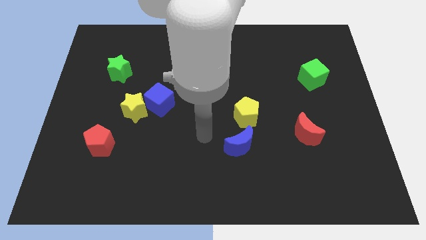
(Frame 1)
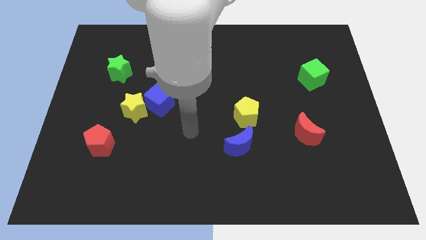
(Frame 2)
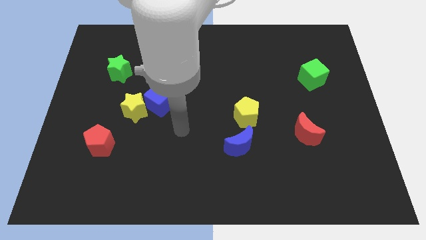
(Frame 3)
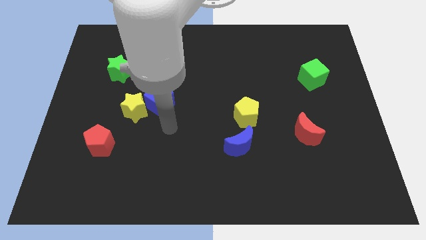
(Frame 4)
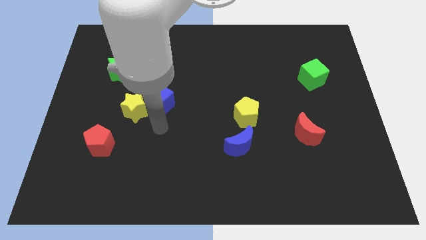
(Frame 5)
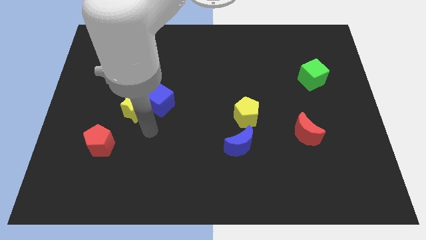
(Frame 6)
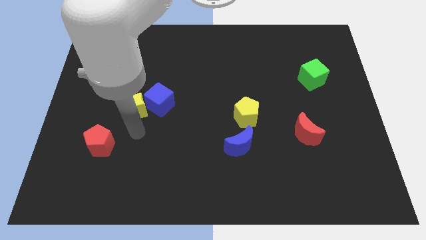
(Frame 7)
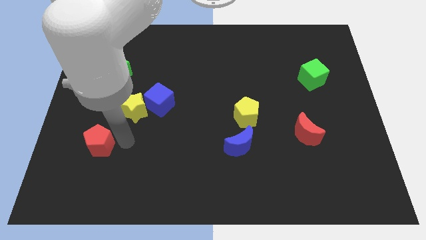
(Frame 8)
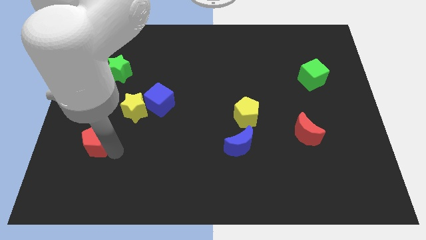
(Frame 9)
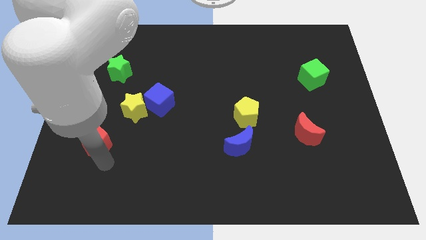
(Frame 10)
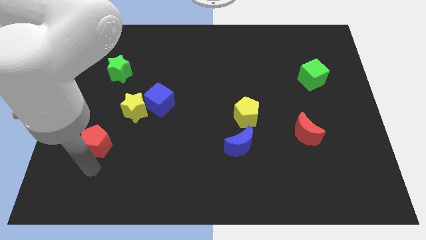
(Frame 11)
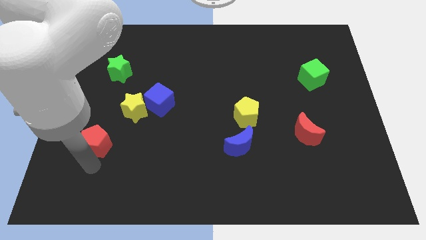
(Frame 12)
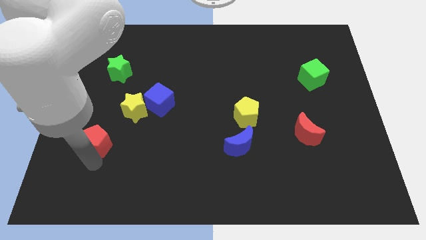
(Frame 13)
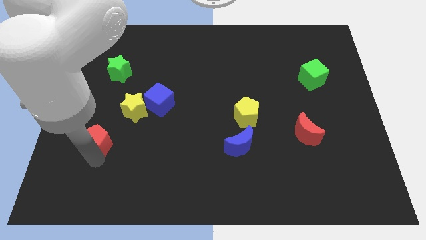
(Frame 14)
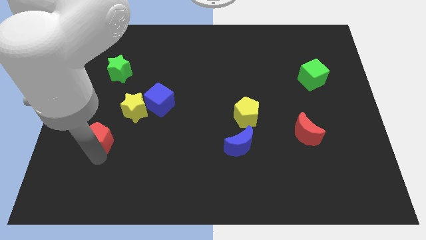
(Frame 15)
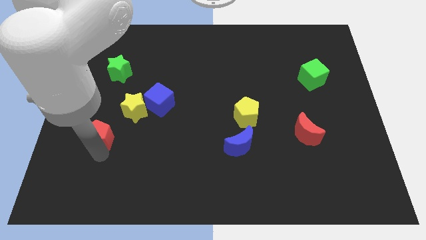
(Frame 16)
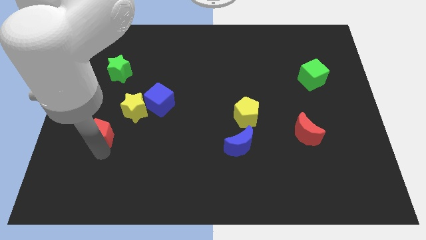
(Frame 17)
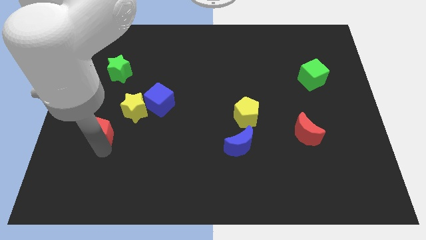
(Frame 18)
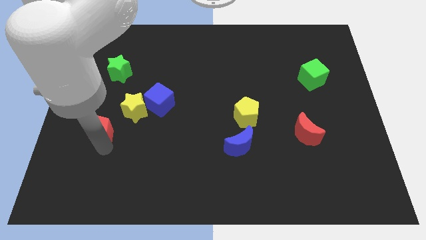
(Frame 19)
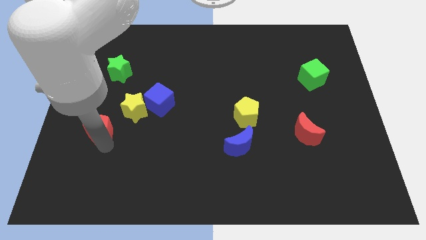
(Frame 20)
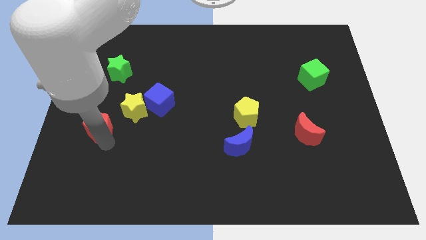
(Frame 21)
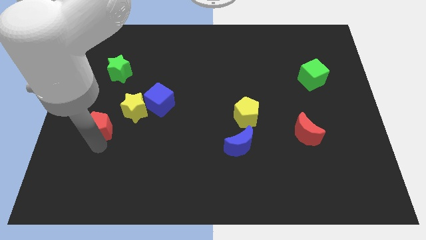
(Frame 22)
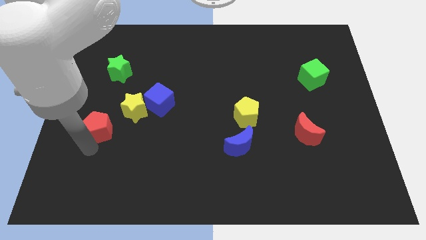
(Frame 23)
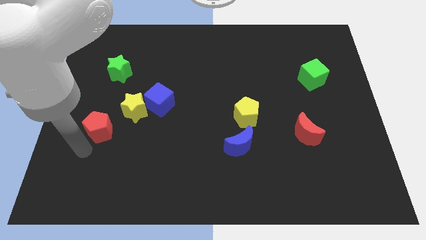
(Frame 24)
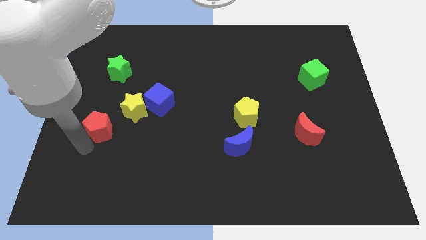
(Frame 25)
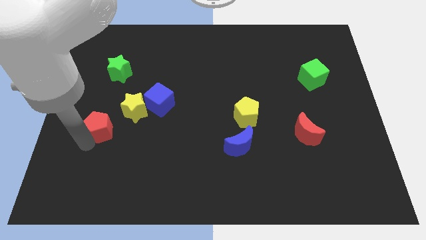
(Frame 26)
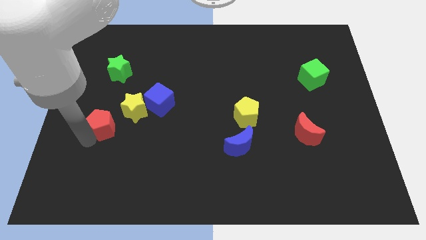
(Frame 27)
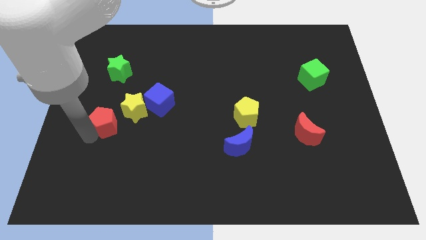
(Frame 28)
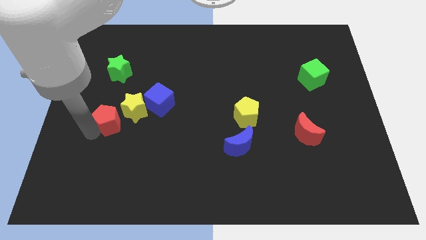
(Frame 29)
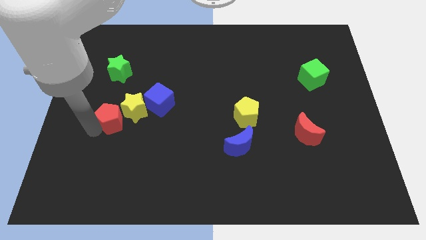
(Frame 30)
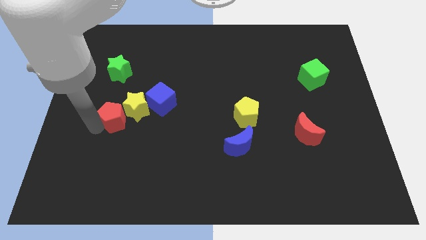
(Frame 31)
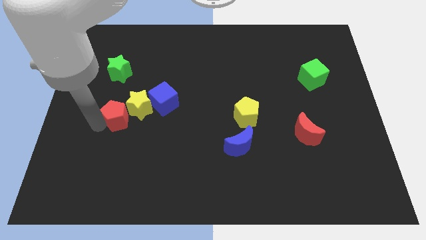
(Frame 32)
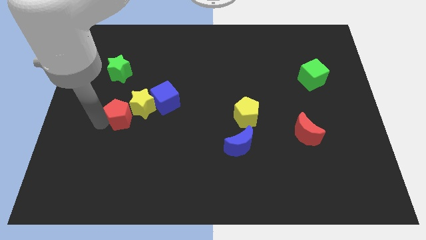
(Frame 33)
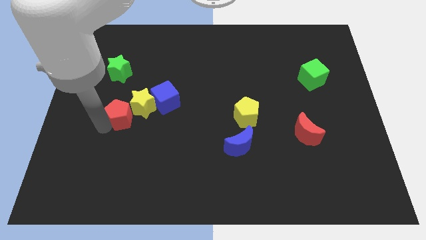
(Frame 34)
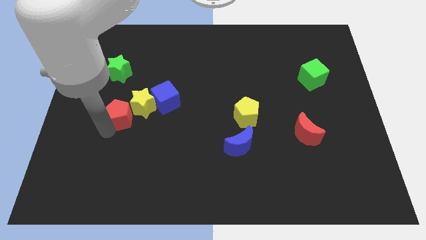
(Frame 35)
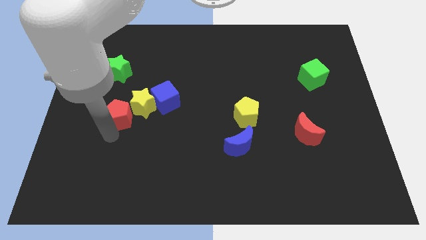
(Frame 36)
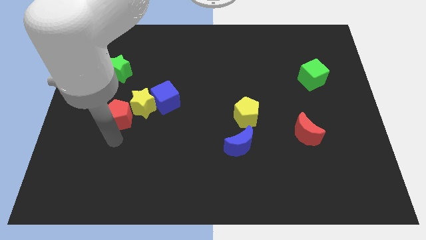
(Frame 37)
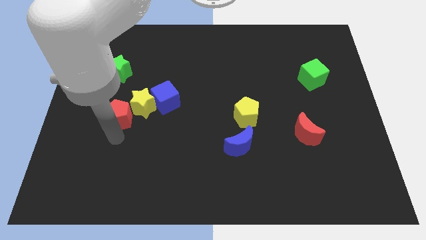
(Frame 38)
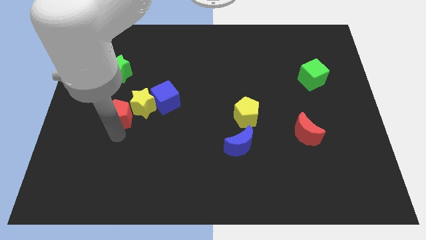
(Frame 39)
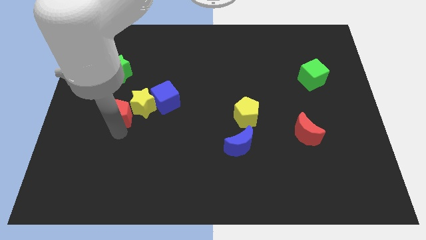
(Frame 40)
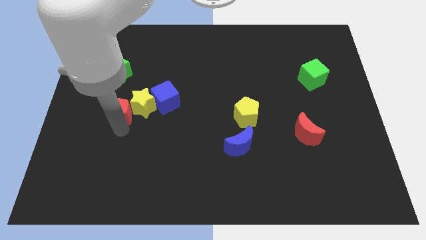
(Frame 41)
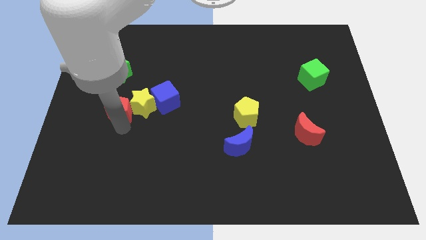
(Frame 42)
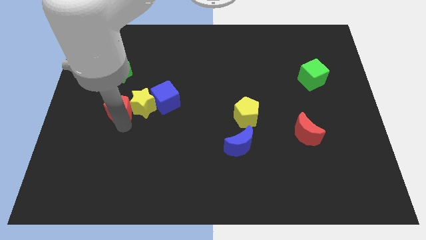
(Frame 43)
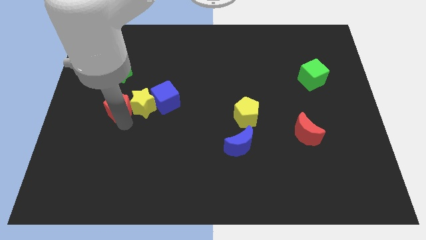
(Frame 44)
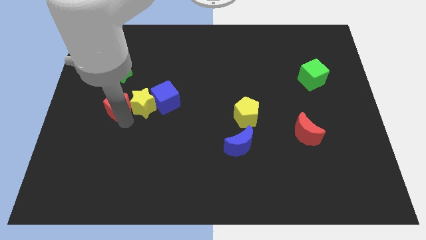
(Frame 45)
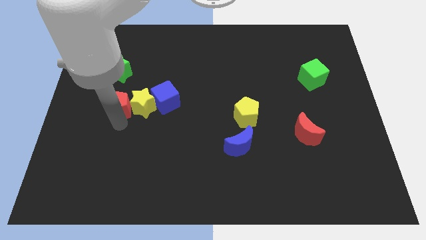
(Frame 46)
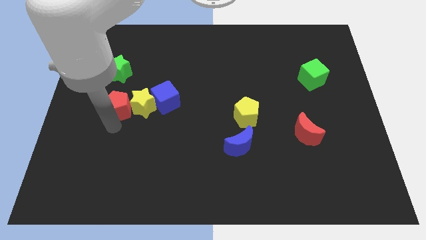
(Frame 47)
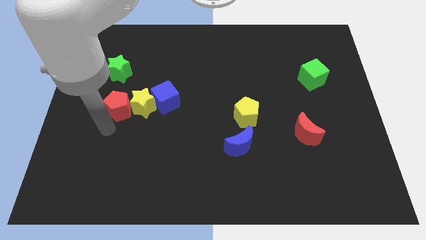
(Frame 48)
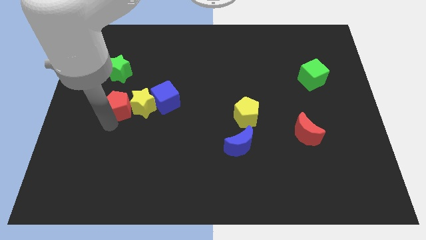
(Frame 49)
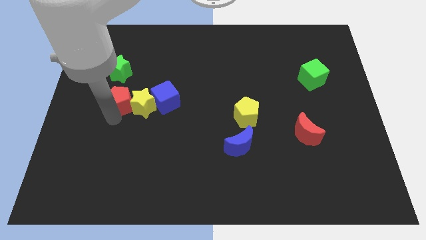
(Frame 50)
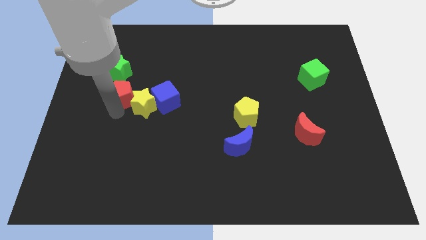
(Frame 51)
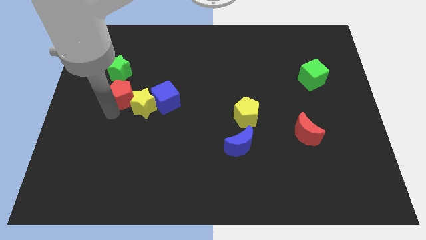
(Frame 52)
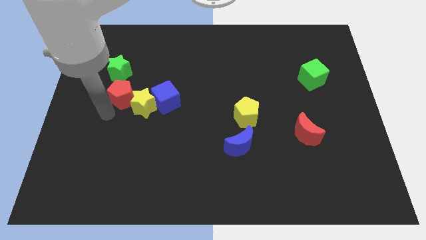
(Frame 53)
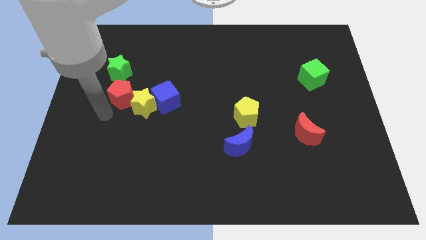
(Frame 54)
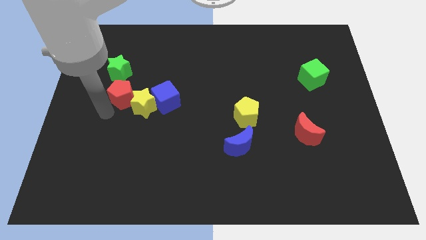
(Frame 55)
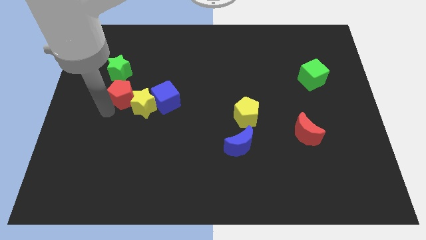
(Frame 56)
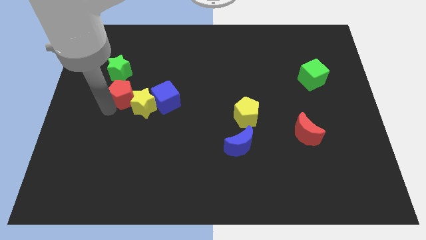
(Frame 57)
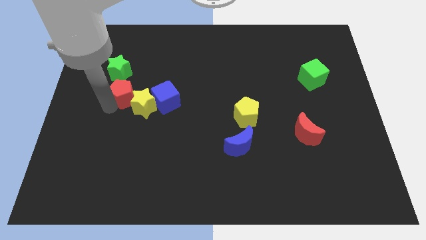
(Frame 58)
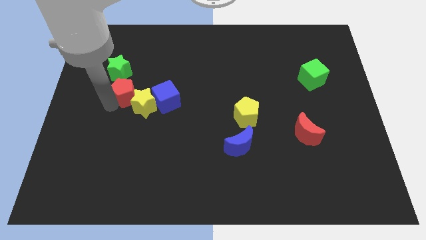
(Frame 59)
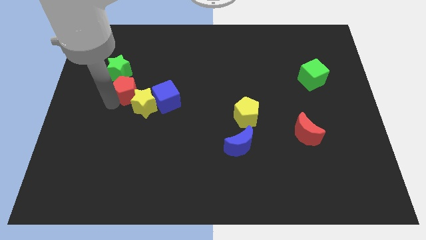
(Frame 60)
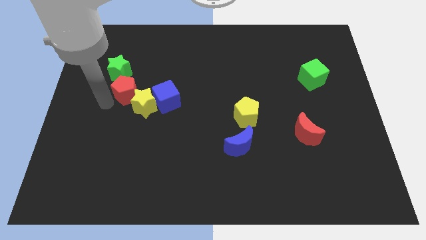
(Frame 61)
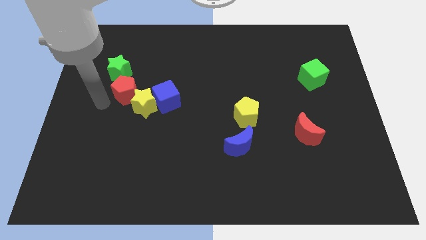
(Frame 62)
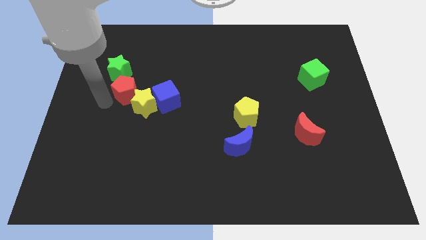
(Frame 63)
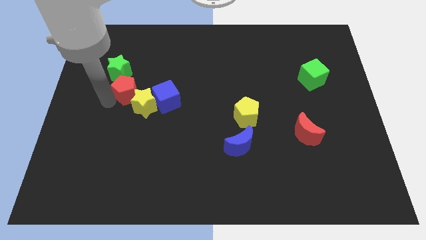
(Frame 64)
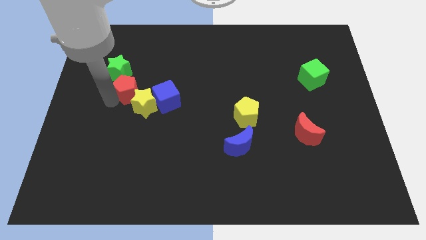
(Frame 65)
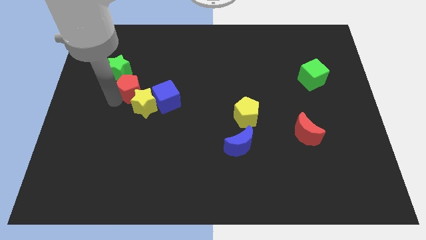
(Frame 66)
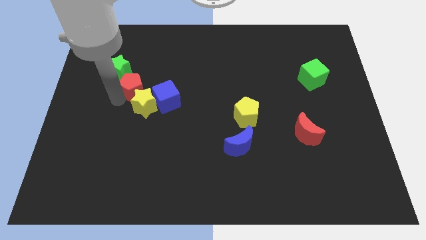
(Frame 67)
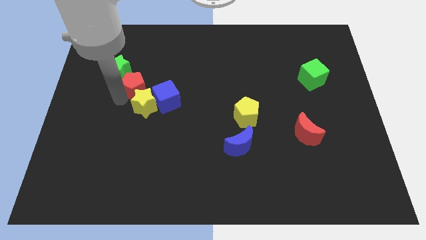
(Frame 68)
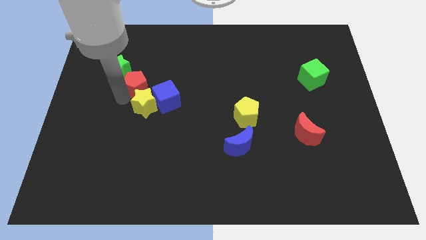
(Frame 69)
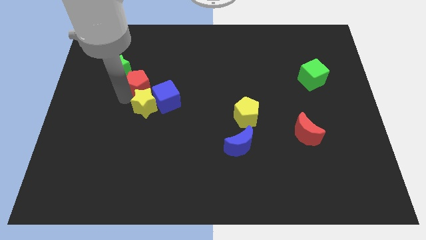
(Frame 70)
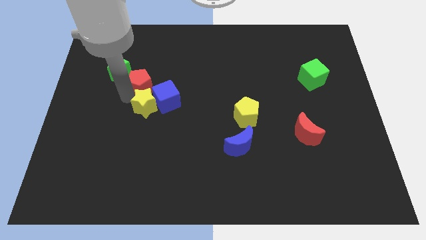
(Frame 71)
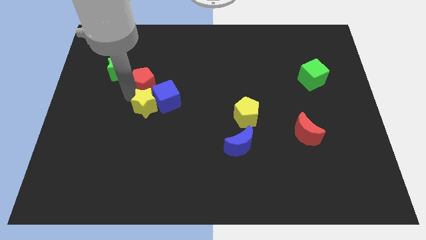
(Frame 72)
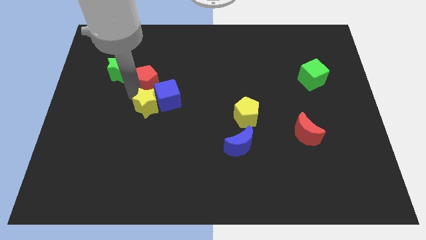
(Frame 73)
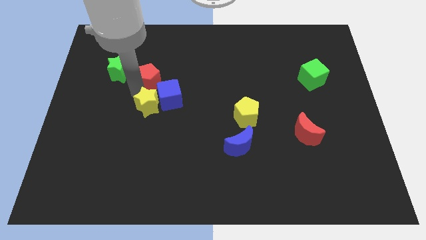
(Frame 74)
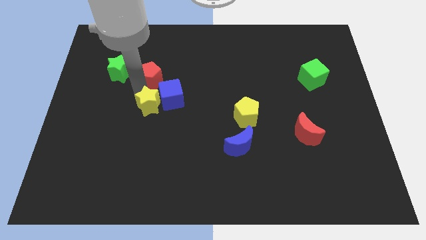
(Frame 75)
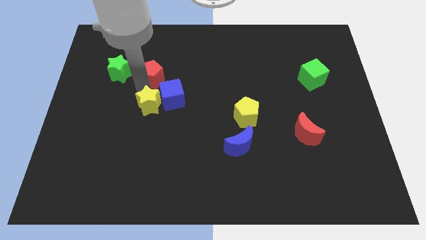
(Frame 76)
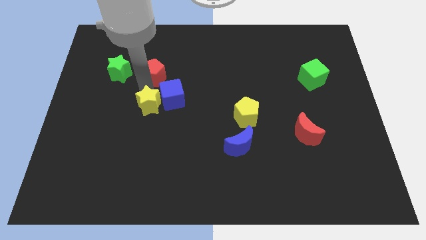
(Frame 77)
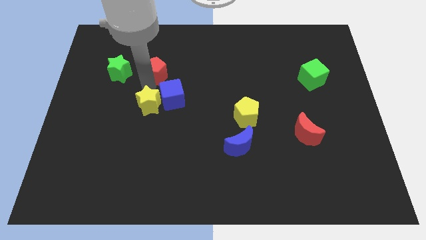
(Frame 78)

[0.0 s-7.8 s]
slide the red pentagon above the blue cube
